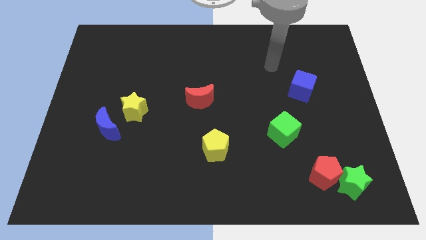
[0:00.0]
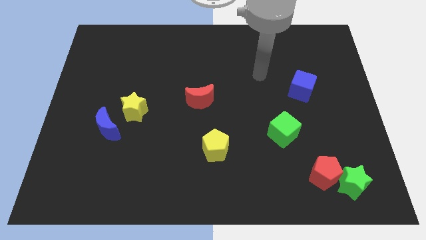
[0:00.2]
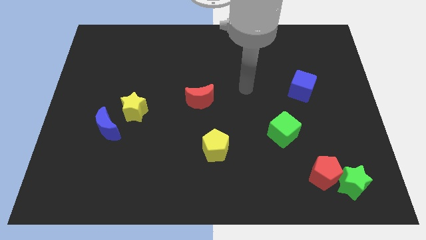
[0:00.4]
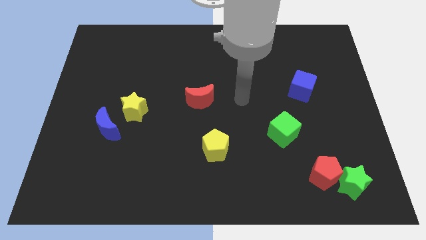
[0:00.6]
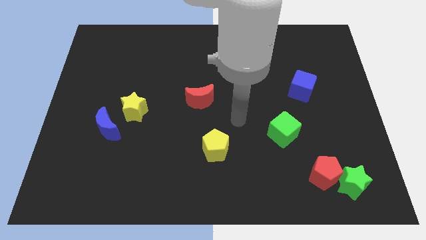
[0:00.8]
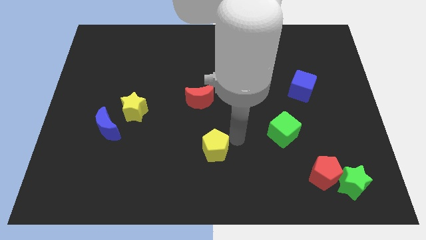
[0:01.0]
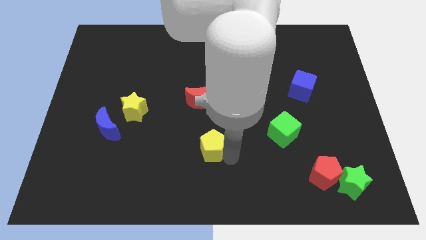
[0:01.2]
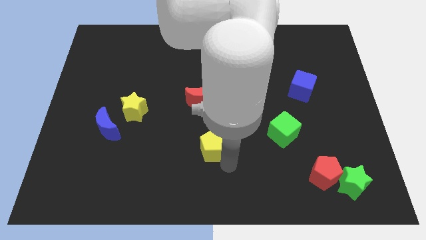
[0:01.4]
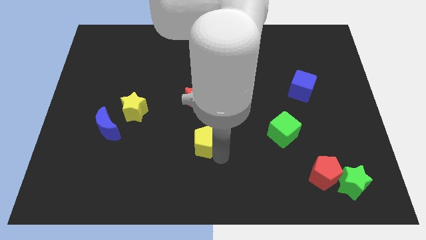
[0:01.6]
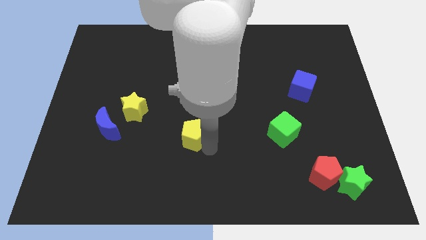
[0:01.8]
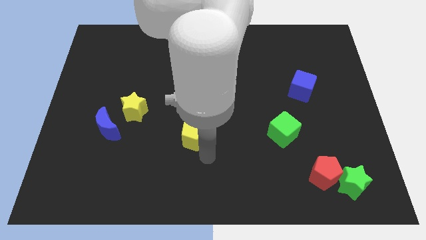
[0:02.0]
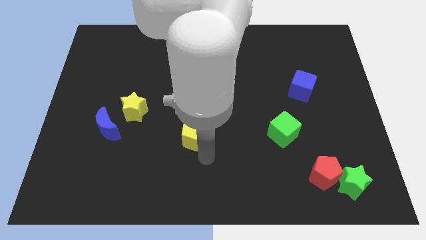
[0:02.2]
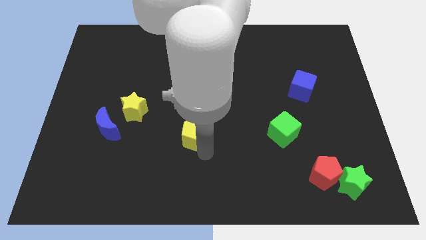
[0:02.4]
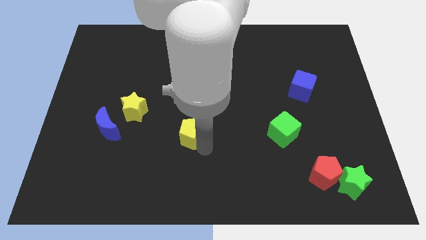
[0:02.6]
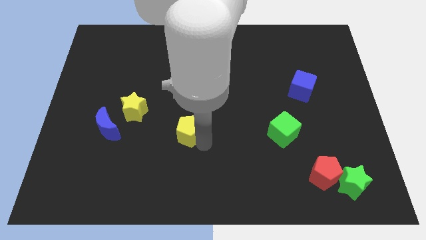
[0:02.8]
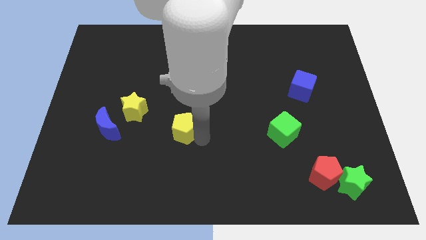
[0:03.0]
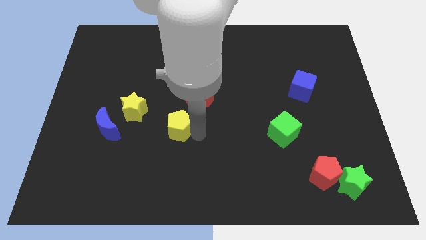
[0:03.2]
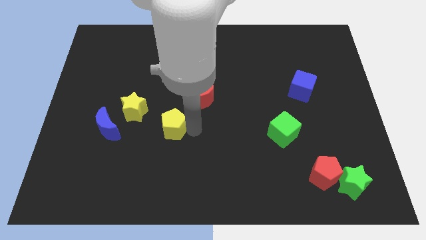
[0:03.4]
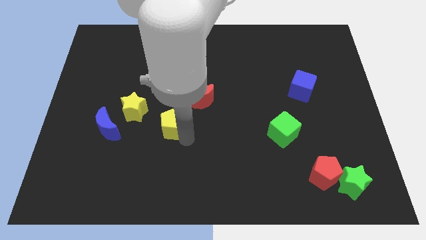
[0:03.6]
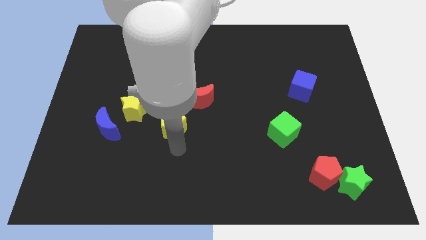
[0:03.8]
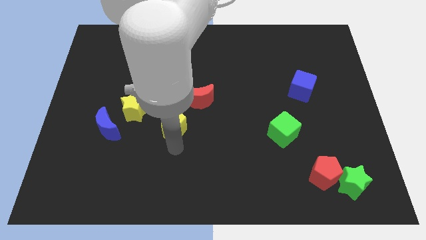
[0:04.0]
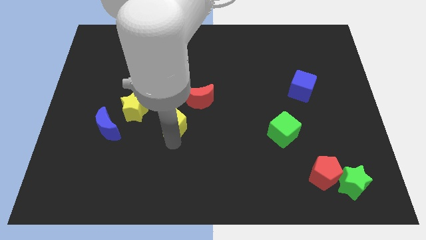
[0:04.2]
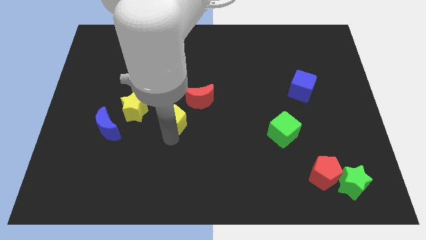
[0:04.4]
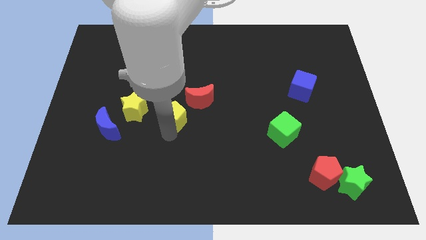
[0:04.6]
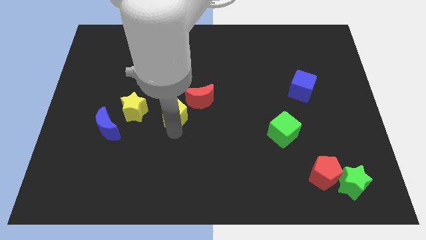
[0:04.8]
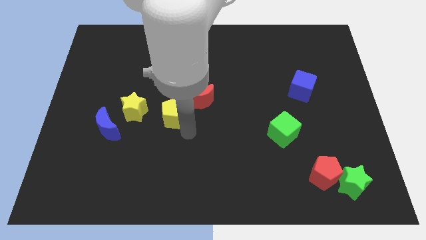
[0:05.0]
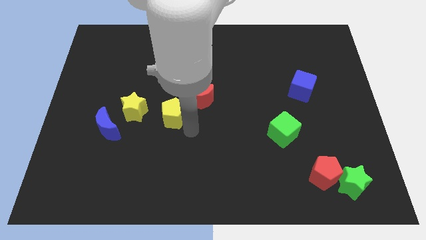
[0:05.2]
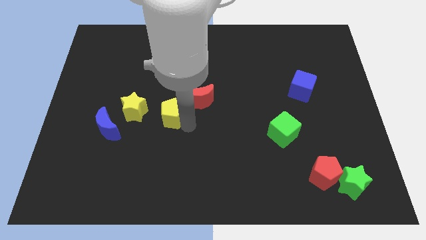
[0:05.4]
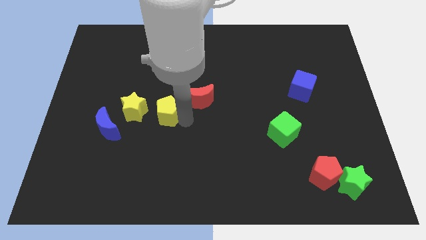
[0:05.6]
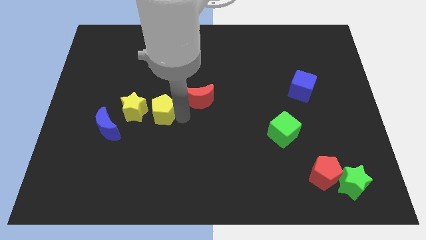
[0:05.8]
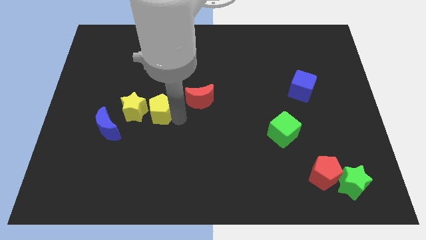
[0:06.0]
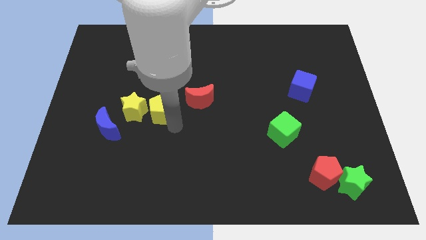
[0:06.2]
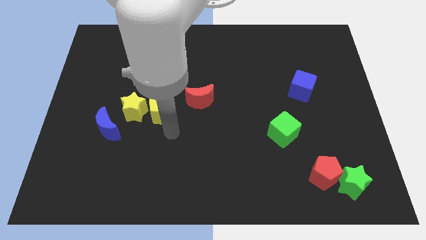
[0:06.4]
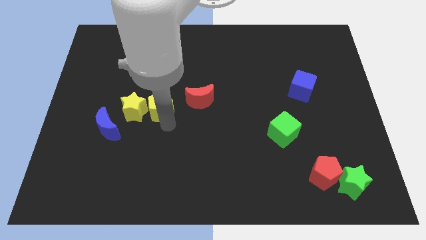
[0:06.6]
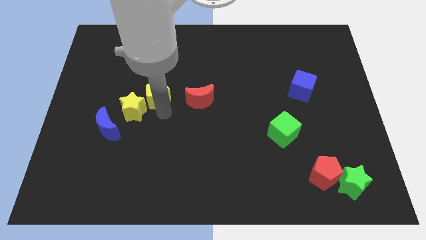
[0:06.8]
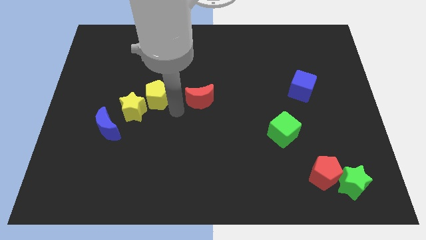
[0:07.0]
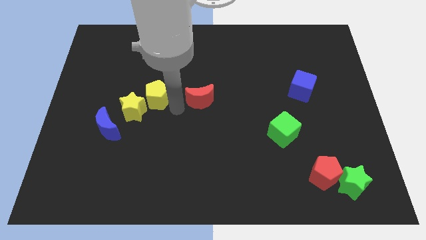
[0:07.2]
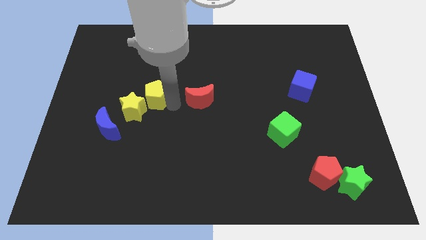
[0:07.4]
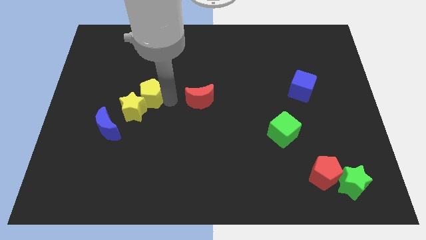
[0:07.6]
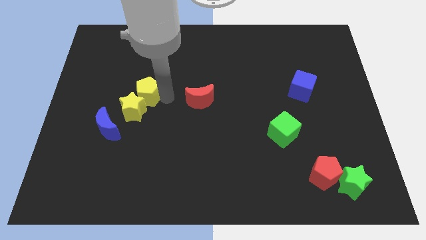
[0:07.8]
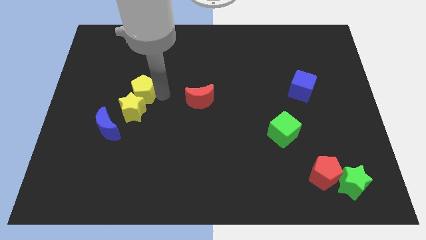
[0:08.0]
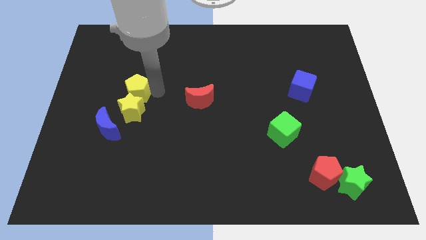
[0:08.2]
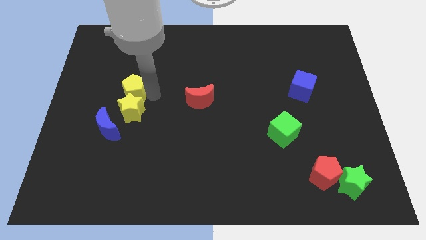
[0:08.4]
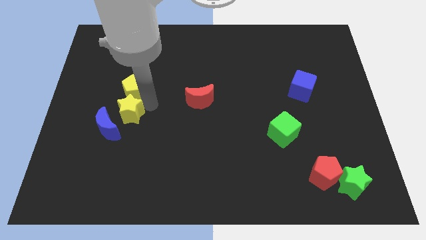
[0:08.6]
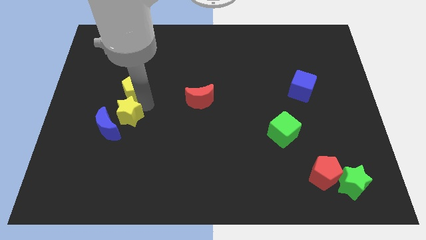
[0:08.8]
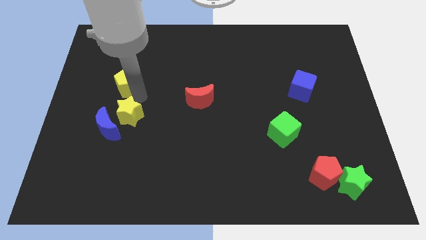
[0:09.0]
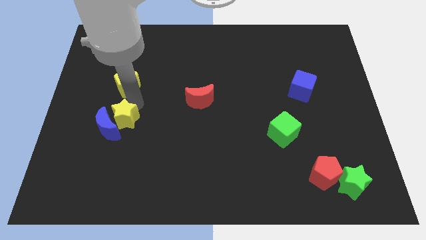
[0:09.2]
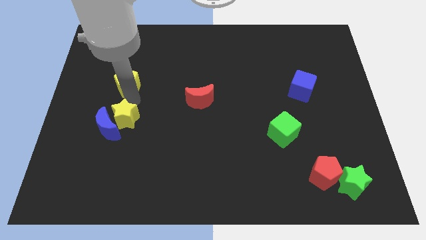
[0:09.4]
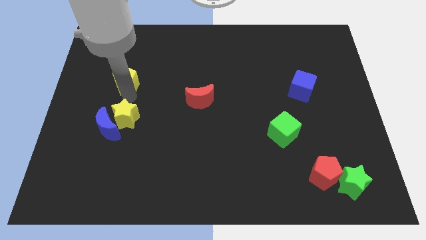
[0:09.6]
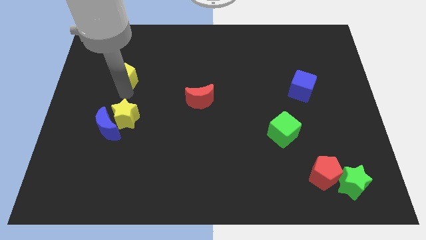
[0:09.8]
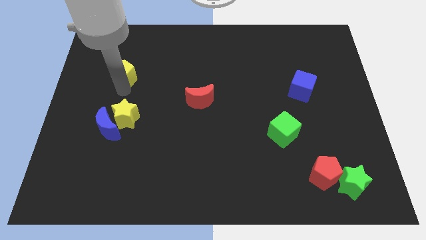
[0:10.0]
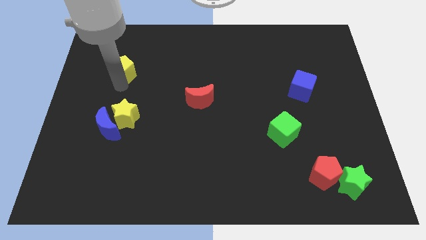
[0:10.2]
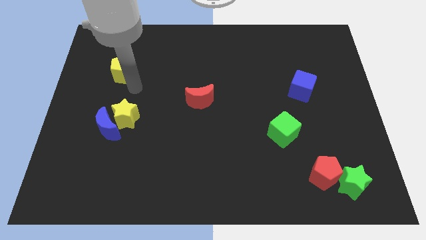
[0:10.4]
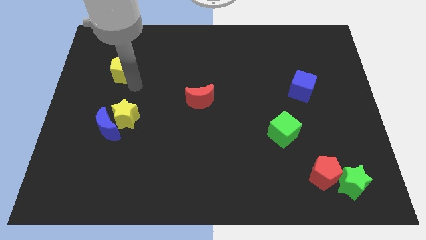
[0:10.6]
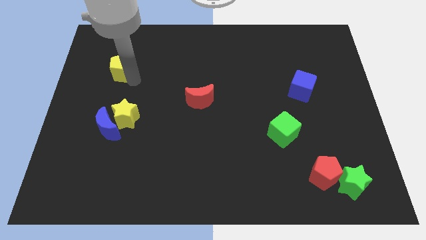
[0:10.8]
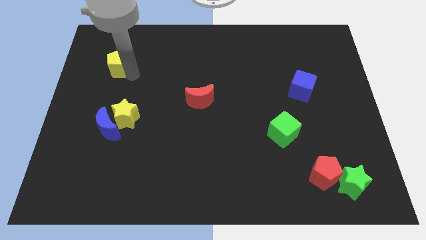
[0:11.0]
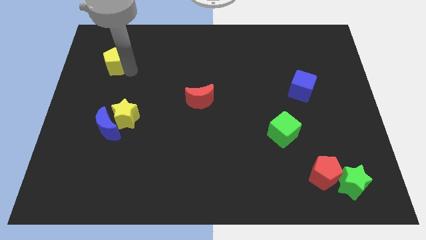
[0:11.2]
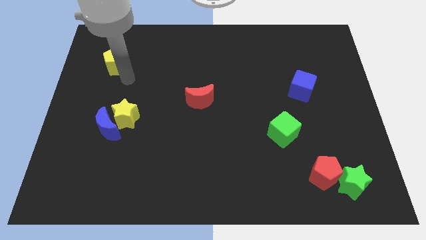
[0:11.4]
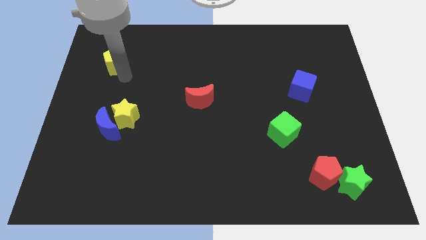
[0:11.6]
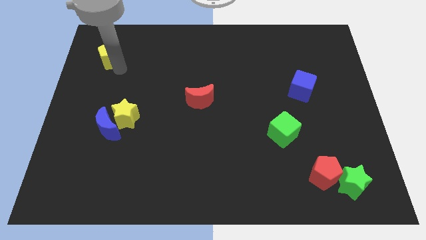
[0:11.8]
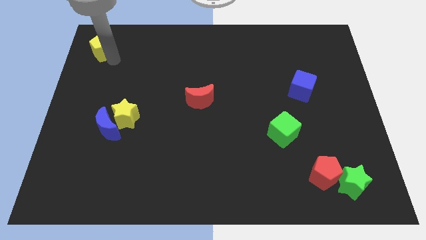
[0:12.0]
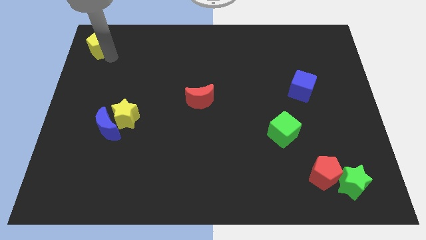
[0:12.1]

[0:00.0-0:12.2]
slide the yellow pentagon to the top left of the board

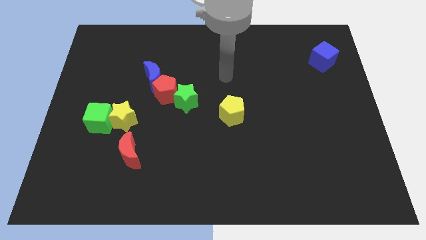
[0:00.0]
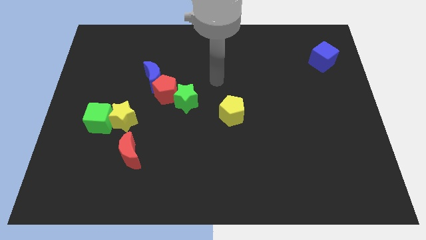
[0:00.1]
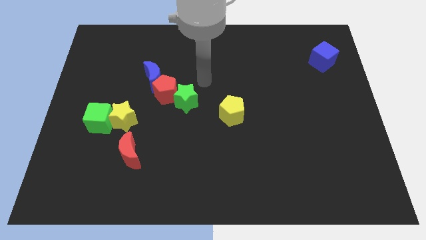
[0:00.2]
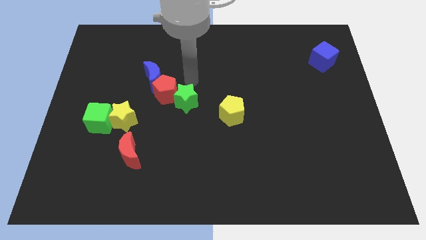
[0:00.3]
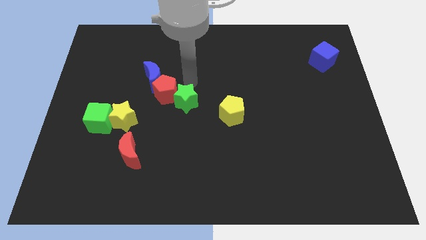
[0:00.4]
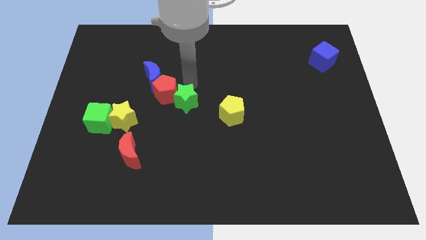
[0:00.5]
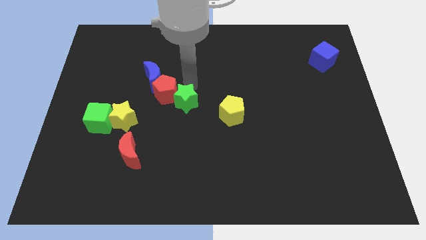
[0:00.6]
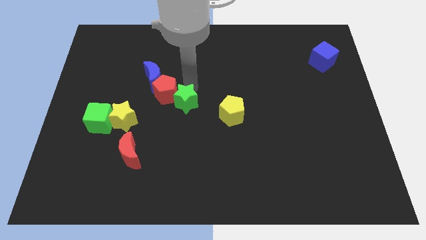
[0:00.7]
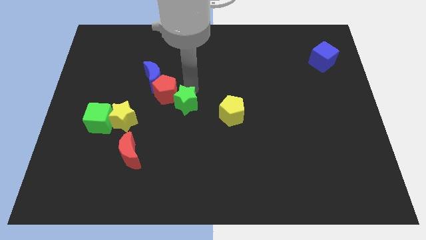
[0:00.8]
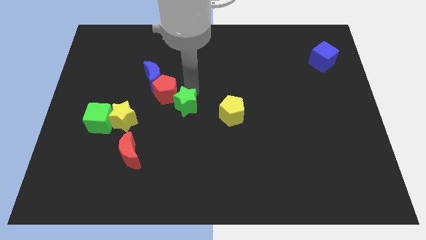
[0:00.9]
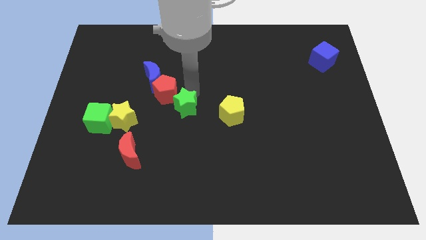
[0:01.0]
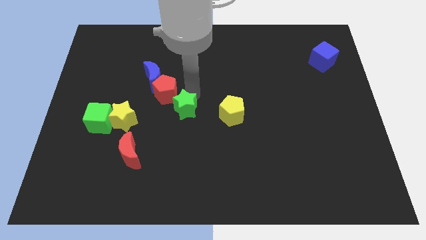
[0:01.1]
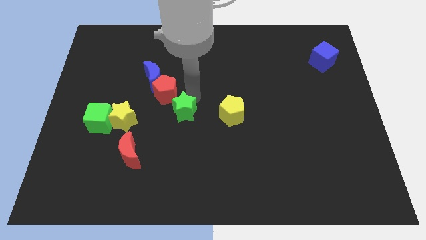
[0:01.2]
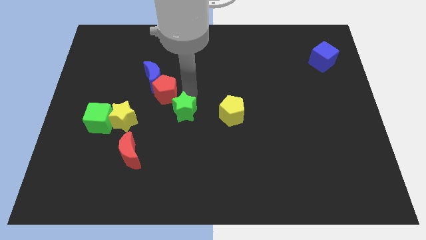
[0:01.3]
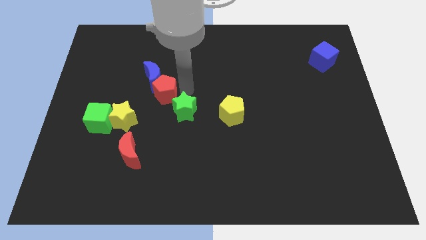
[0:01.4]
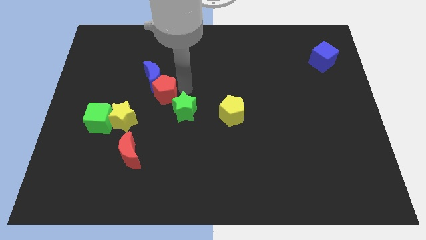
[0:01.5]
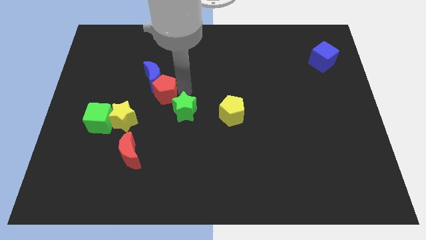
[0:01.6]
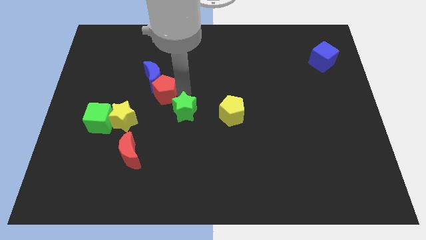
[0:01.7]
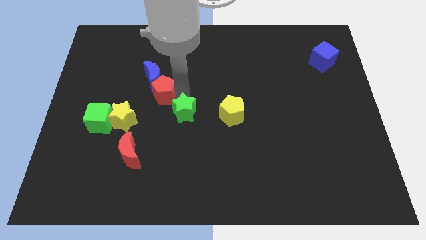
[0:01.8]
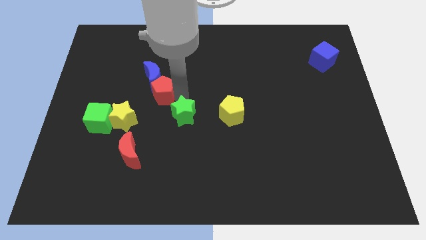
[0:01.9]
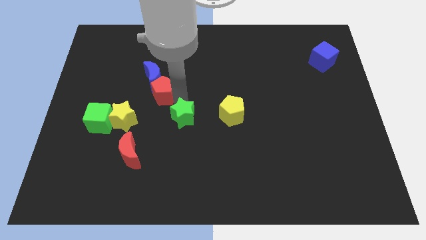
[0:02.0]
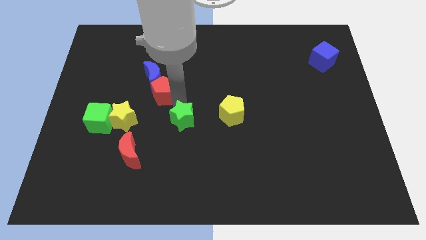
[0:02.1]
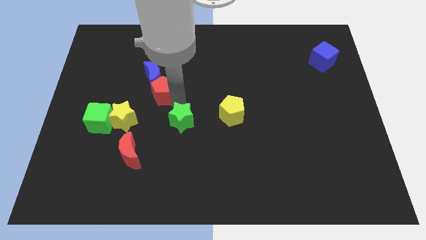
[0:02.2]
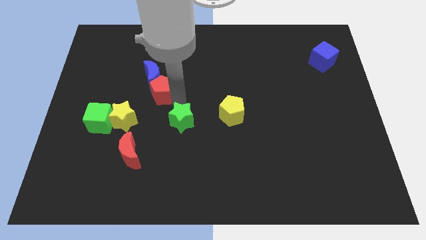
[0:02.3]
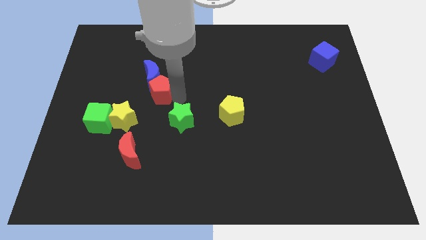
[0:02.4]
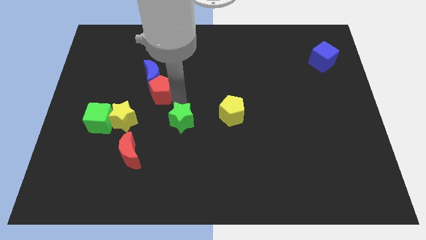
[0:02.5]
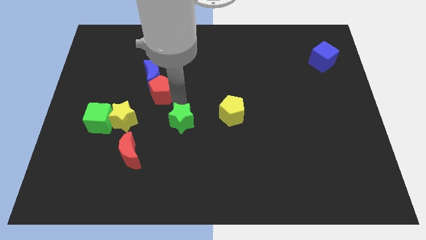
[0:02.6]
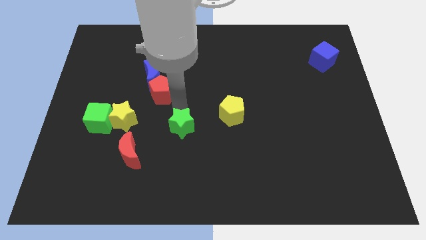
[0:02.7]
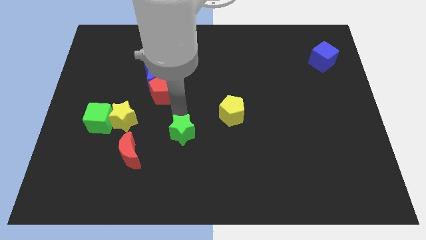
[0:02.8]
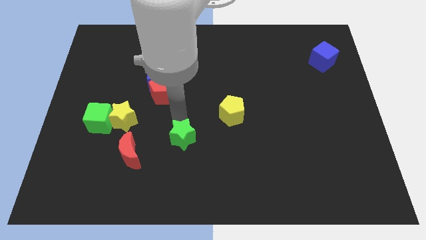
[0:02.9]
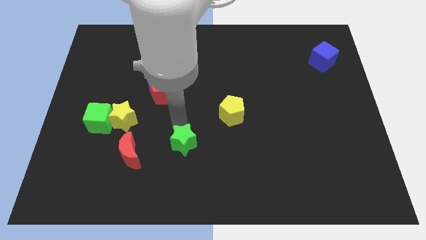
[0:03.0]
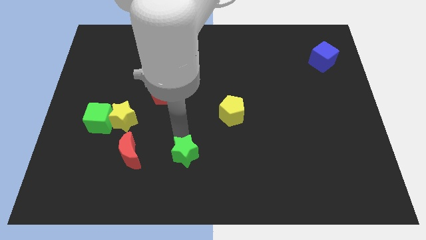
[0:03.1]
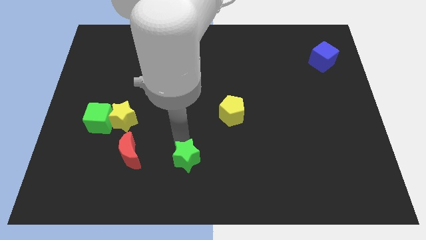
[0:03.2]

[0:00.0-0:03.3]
push the green star to the bottom
